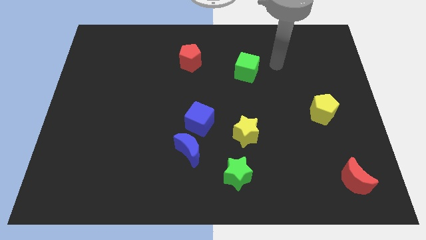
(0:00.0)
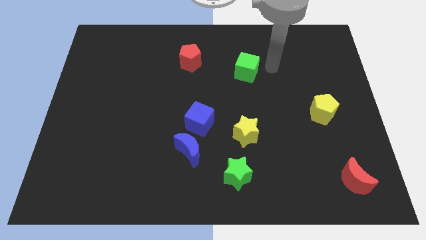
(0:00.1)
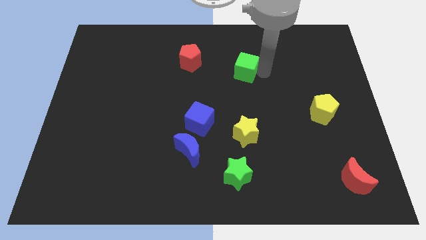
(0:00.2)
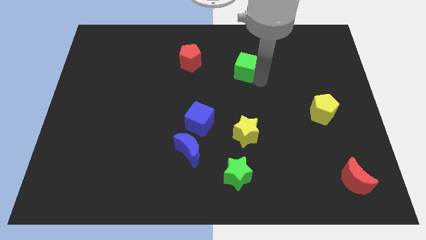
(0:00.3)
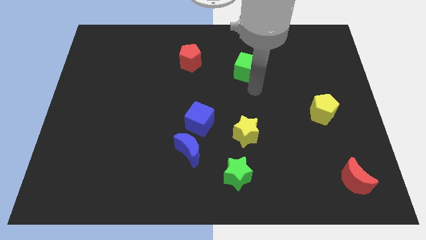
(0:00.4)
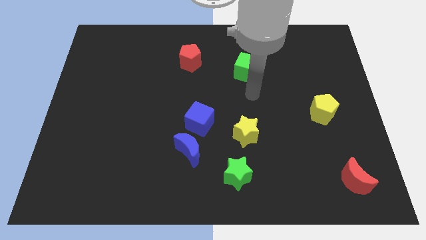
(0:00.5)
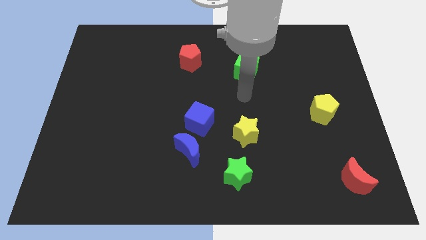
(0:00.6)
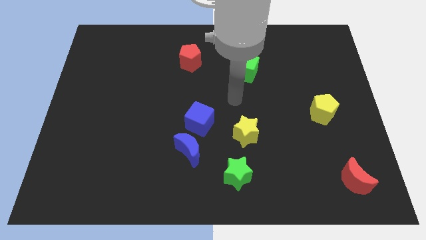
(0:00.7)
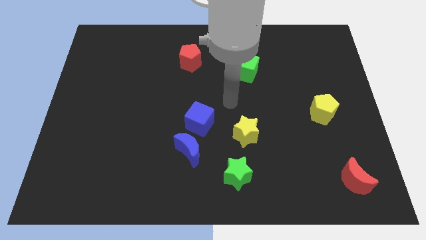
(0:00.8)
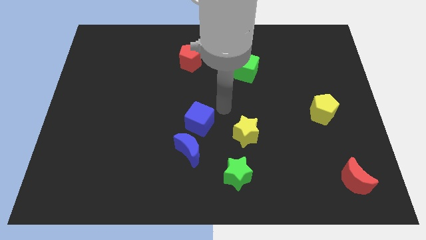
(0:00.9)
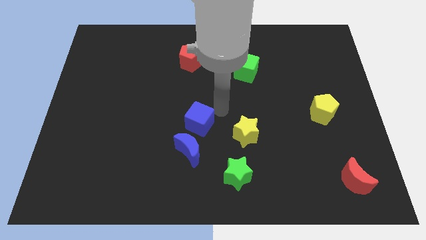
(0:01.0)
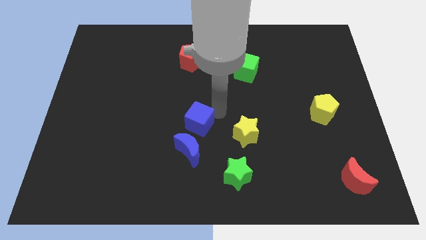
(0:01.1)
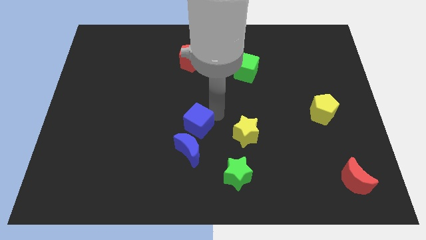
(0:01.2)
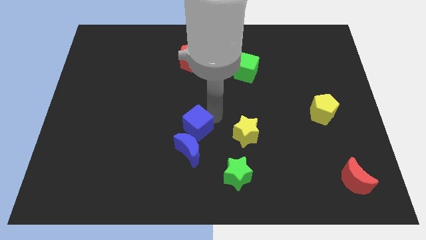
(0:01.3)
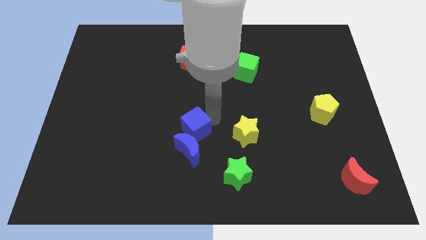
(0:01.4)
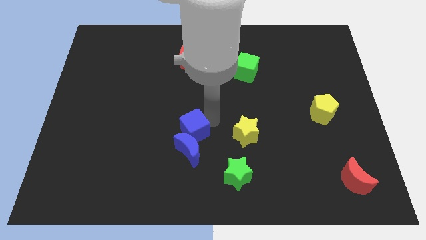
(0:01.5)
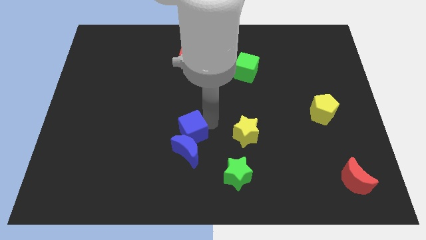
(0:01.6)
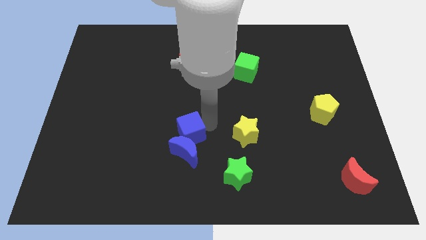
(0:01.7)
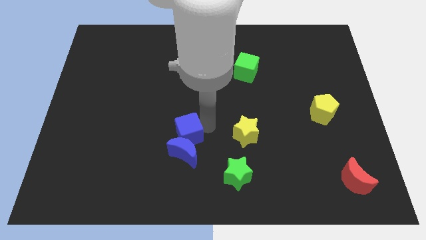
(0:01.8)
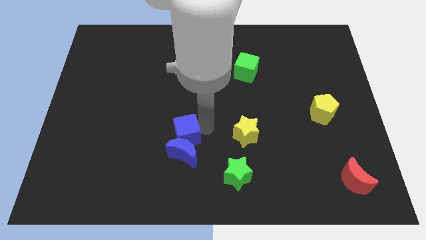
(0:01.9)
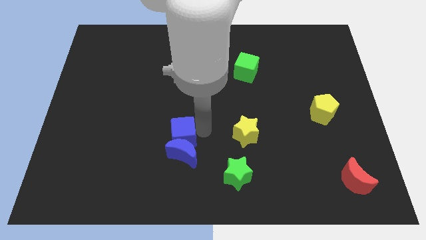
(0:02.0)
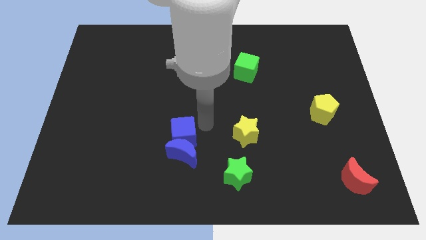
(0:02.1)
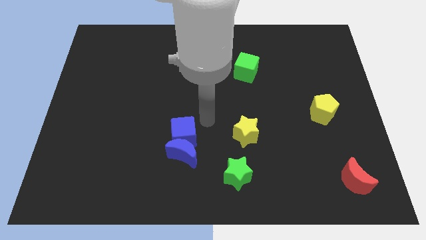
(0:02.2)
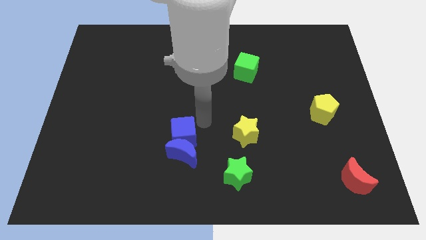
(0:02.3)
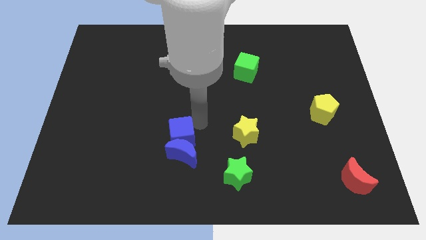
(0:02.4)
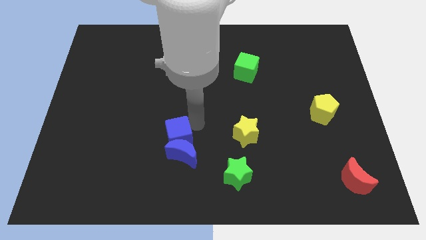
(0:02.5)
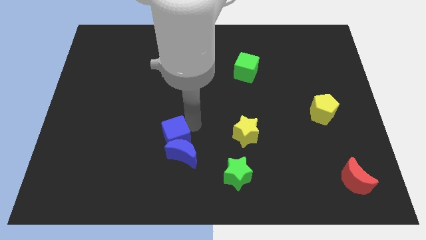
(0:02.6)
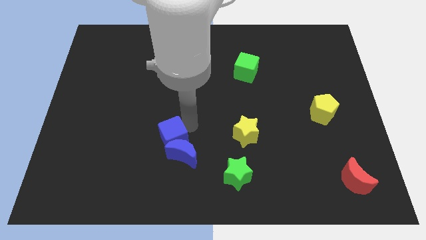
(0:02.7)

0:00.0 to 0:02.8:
move the blue cube somewhat diagonally downwards and to the left

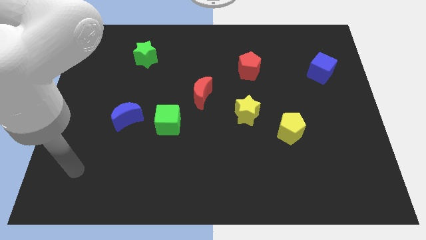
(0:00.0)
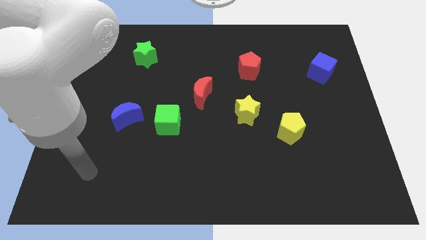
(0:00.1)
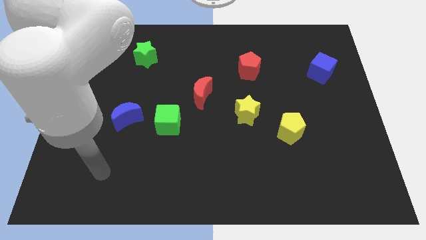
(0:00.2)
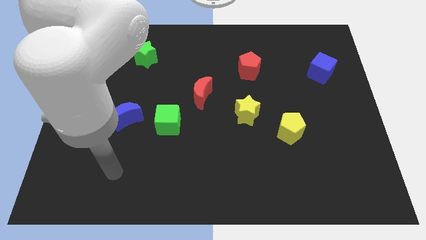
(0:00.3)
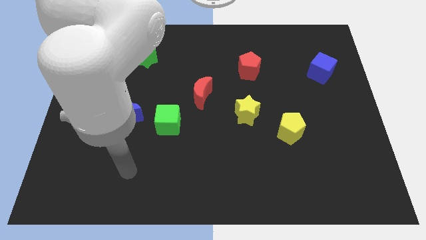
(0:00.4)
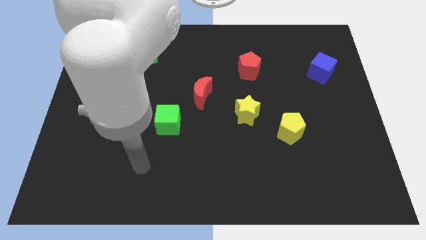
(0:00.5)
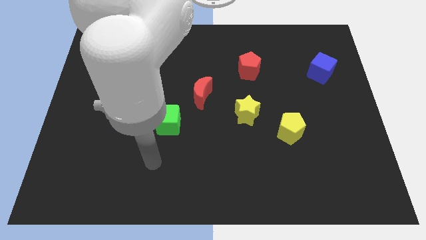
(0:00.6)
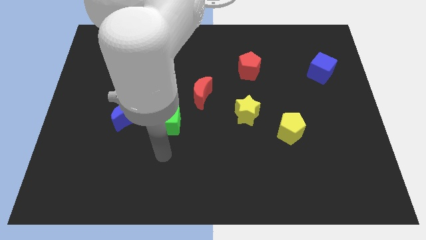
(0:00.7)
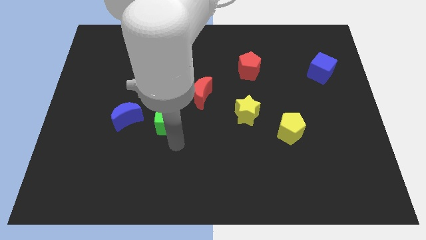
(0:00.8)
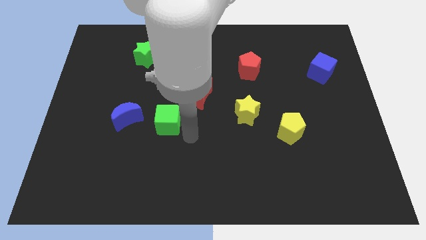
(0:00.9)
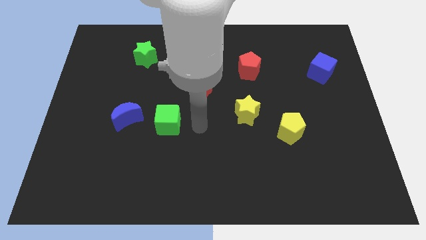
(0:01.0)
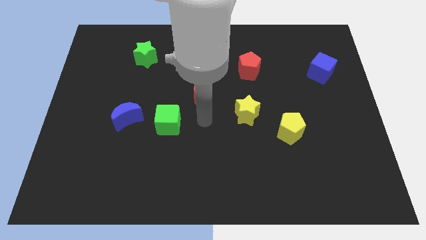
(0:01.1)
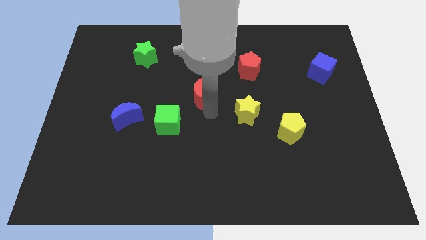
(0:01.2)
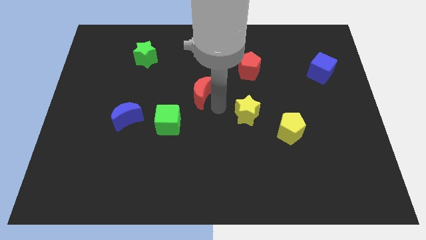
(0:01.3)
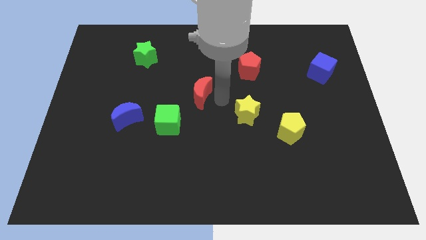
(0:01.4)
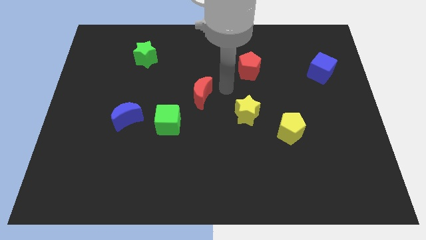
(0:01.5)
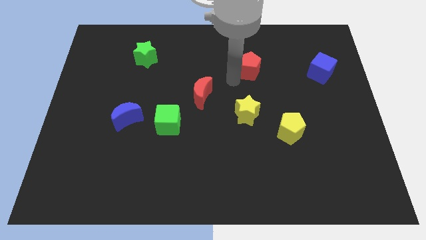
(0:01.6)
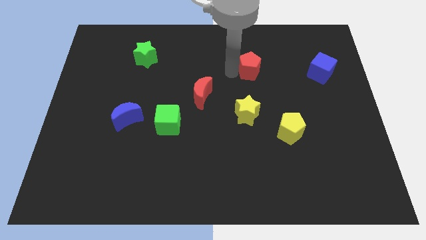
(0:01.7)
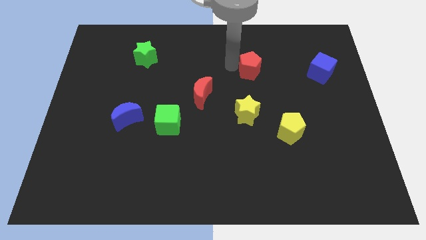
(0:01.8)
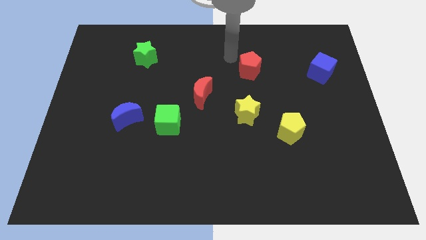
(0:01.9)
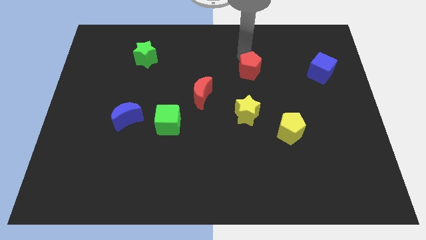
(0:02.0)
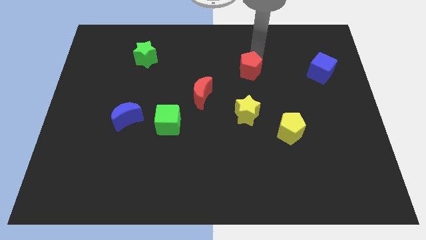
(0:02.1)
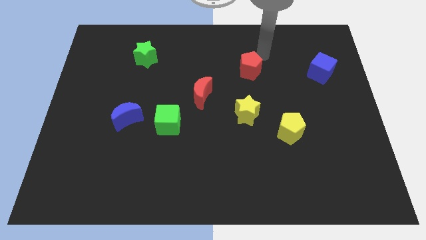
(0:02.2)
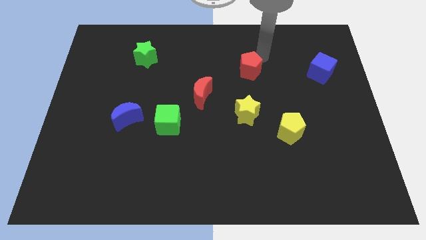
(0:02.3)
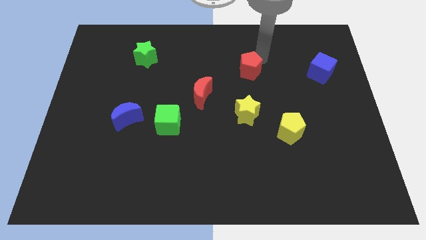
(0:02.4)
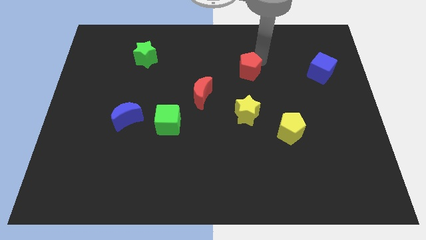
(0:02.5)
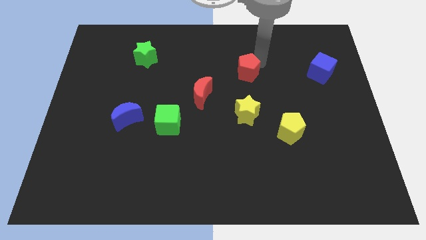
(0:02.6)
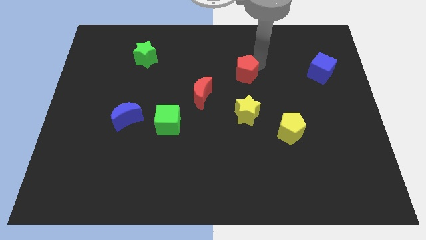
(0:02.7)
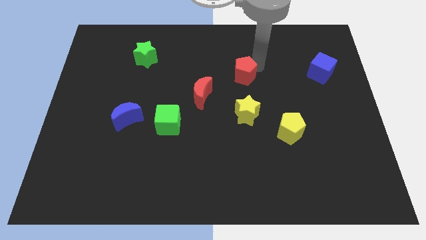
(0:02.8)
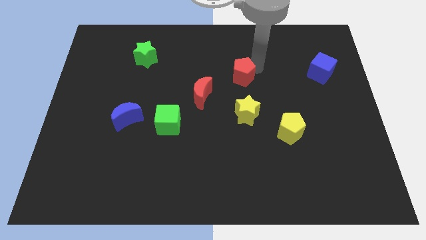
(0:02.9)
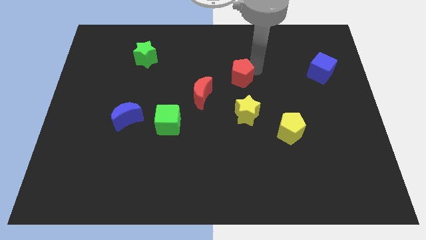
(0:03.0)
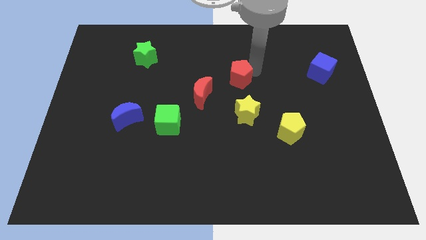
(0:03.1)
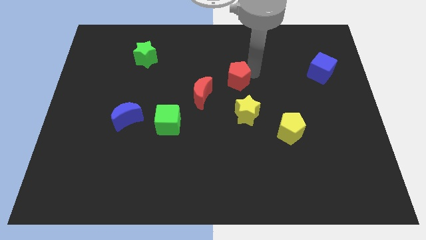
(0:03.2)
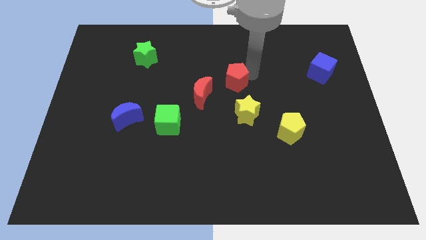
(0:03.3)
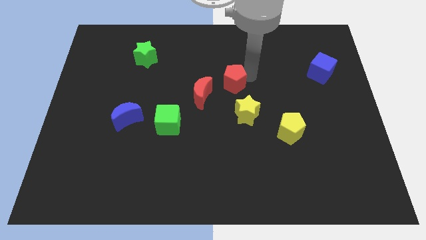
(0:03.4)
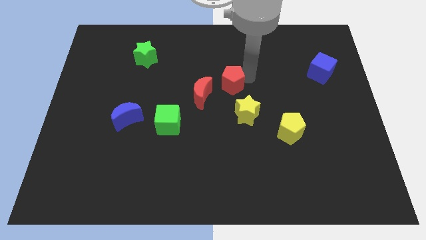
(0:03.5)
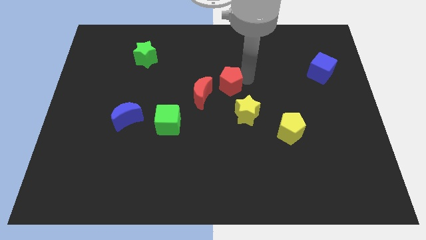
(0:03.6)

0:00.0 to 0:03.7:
slide the red pentagon down and to the left somewhat

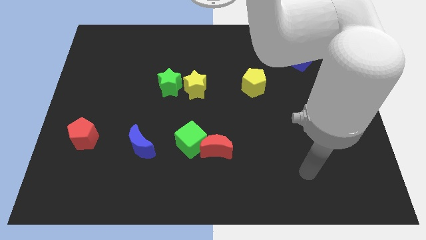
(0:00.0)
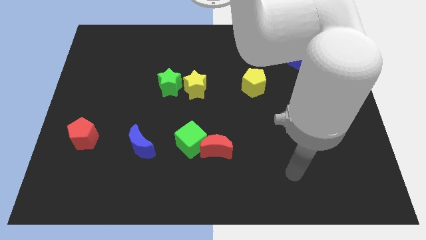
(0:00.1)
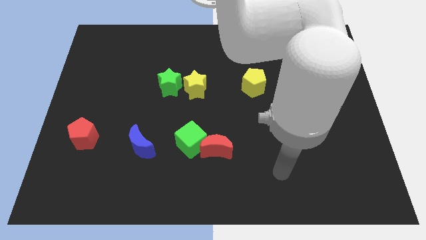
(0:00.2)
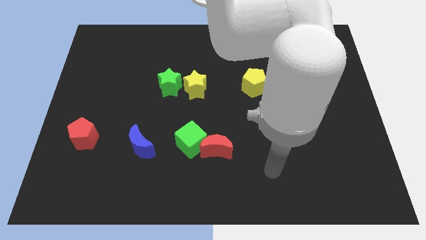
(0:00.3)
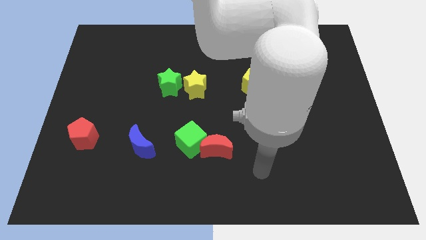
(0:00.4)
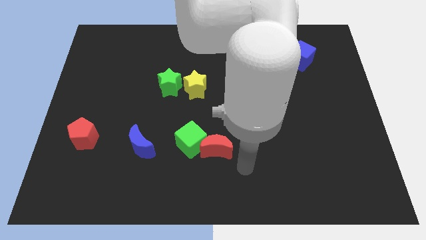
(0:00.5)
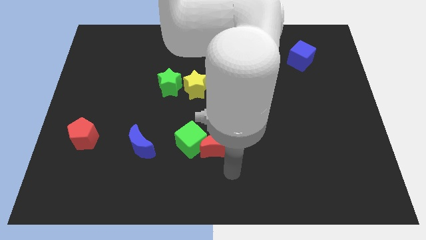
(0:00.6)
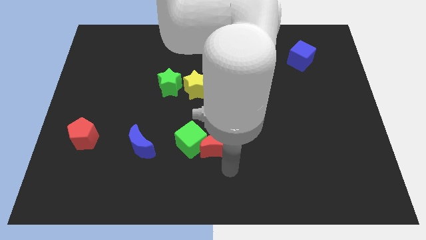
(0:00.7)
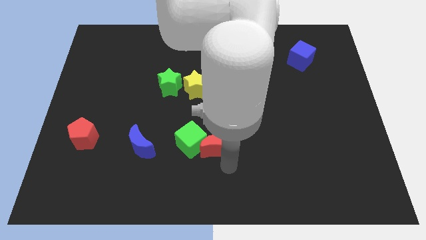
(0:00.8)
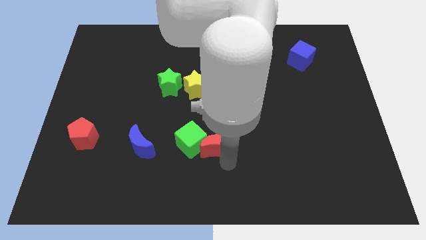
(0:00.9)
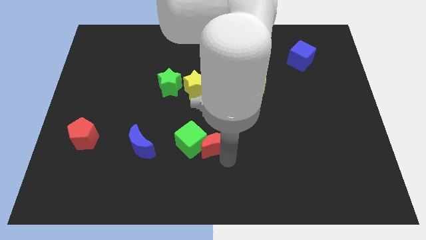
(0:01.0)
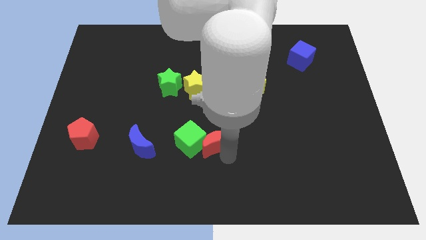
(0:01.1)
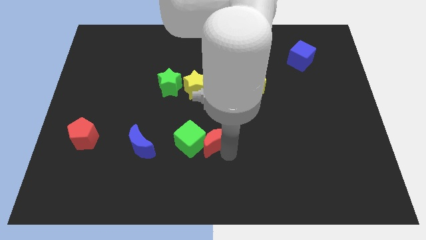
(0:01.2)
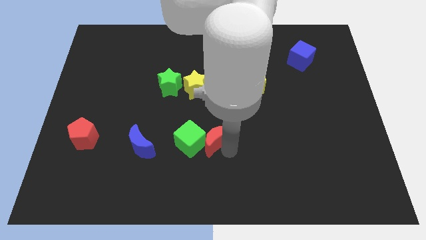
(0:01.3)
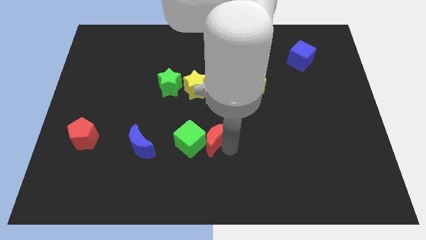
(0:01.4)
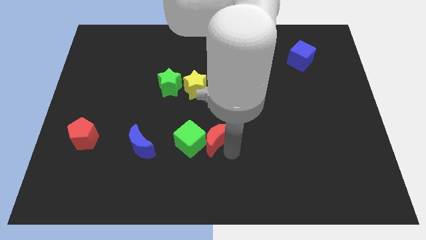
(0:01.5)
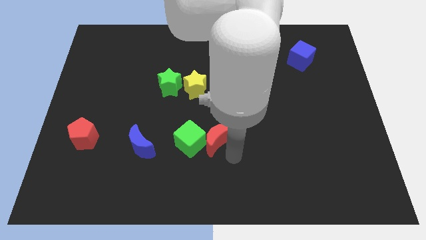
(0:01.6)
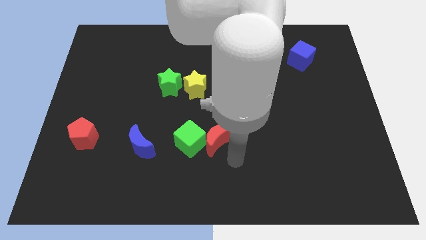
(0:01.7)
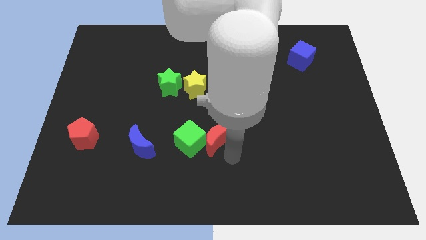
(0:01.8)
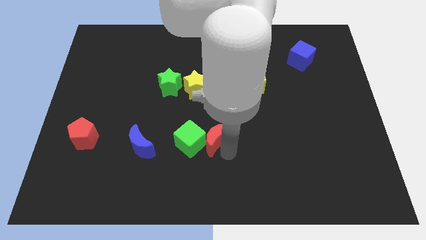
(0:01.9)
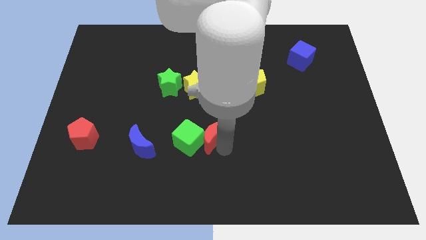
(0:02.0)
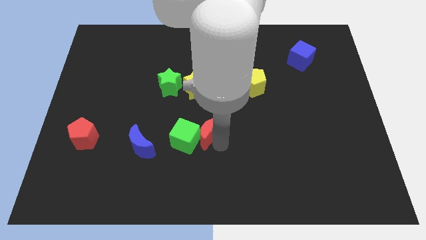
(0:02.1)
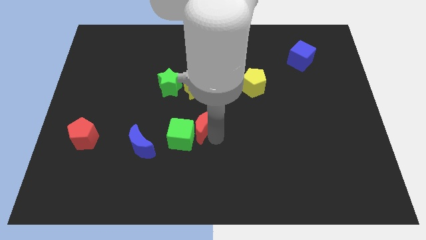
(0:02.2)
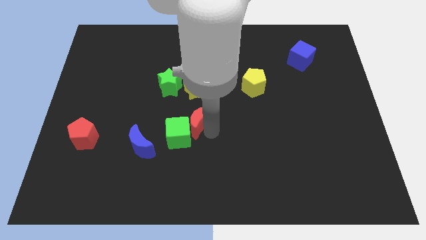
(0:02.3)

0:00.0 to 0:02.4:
slightly slide the red moon diagonally up and left
